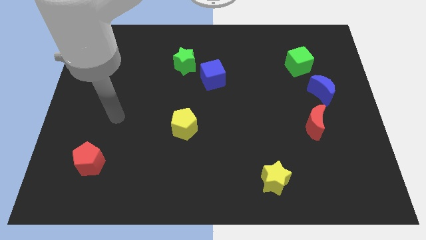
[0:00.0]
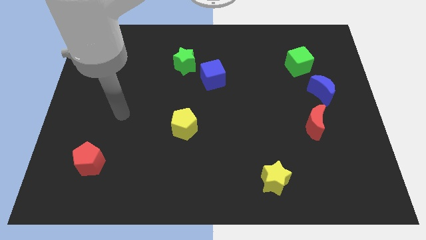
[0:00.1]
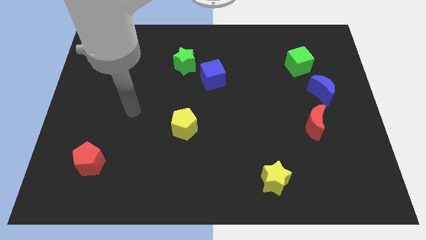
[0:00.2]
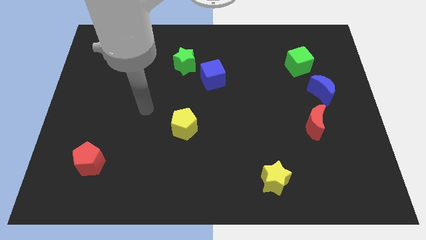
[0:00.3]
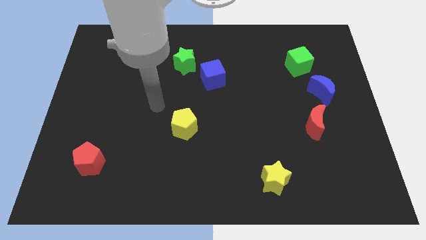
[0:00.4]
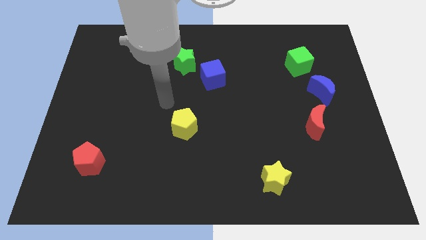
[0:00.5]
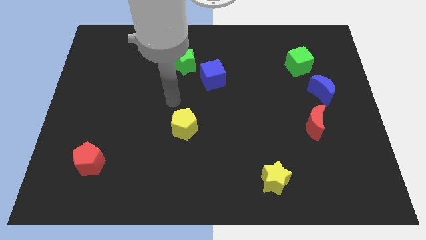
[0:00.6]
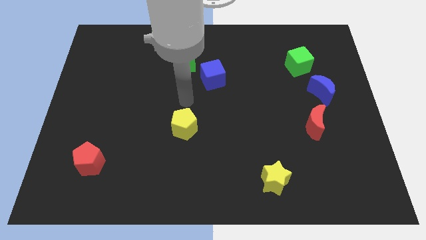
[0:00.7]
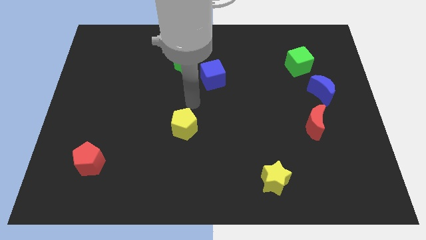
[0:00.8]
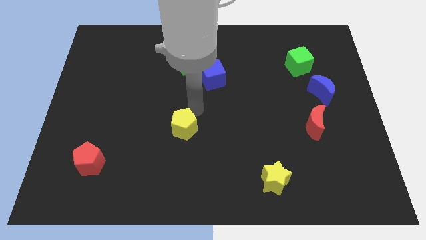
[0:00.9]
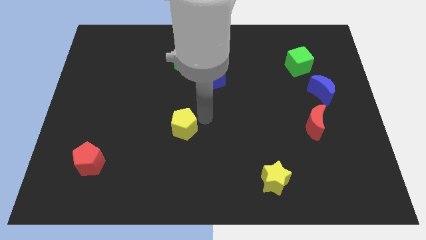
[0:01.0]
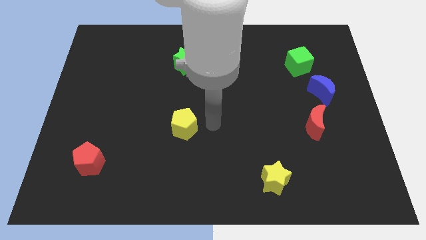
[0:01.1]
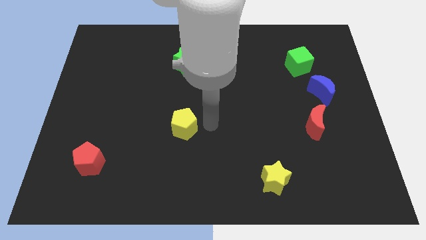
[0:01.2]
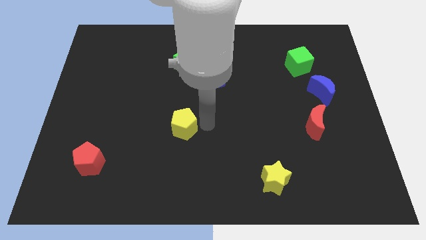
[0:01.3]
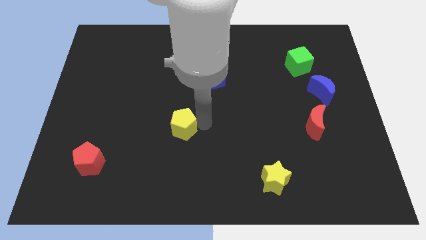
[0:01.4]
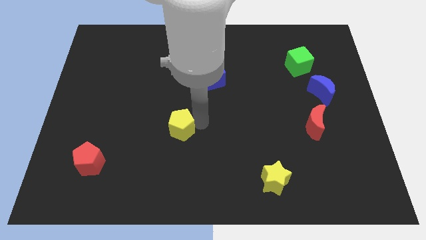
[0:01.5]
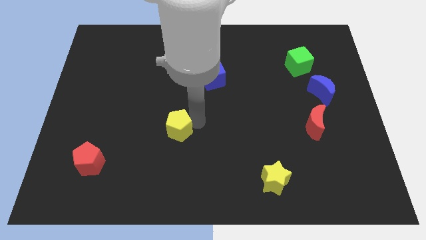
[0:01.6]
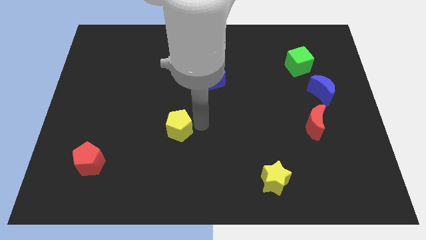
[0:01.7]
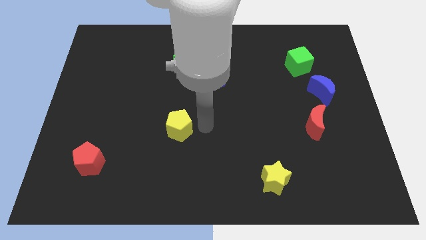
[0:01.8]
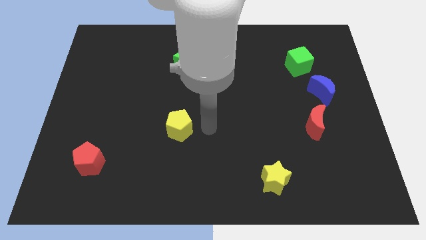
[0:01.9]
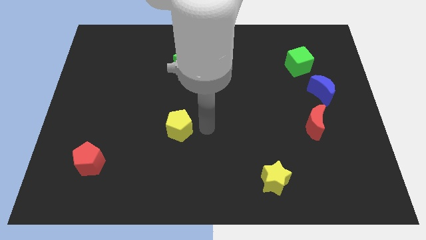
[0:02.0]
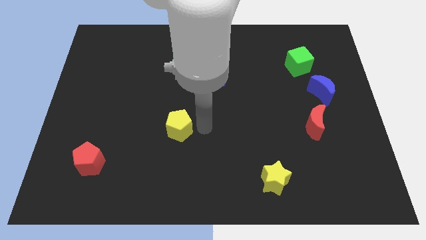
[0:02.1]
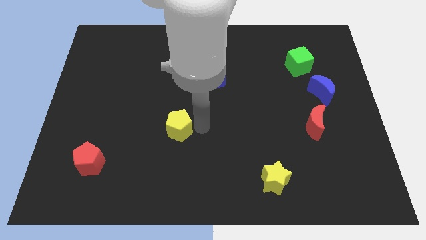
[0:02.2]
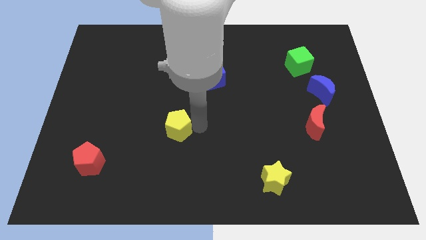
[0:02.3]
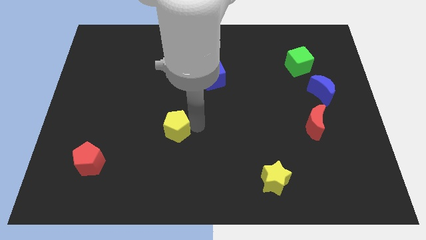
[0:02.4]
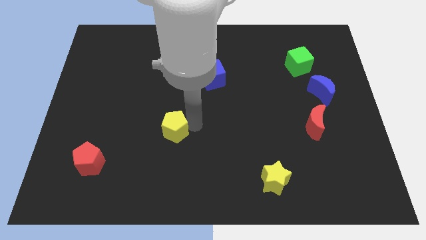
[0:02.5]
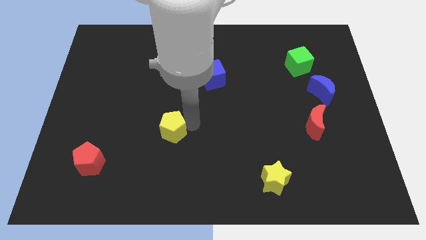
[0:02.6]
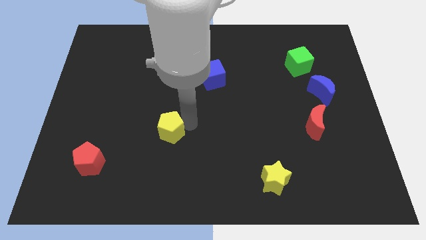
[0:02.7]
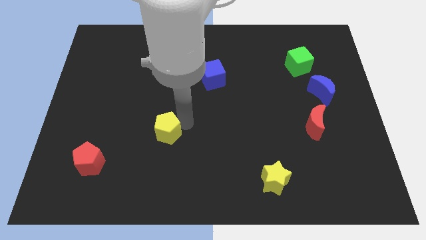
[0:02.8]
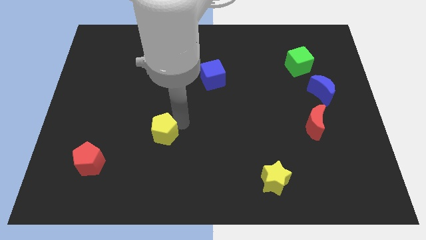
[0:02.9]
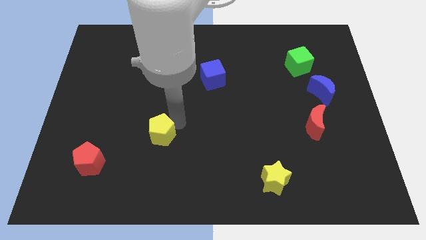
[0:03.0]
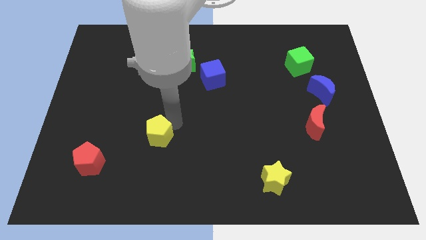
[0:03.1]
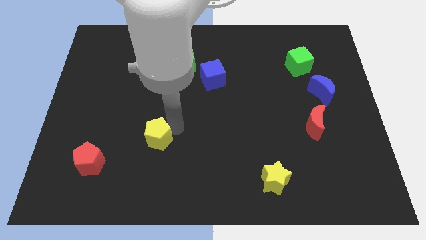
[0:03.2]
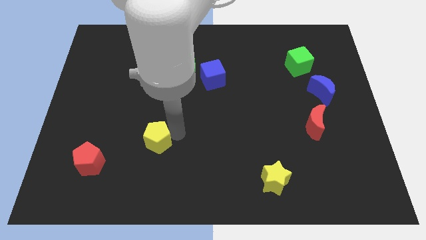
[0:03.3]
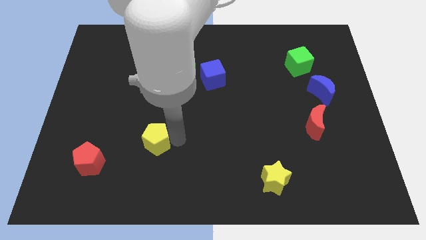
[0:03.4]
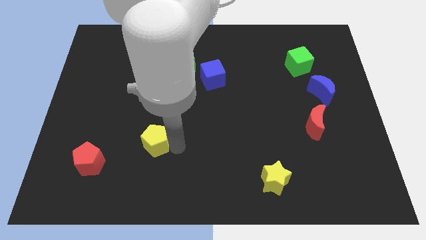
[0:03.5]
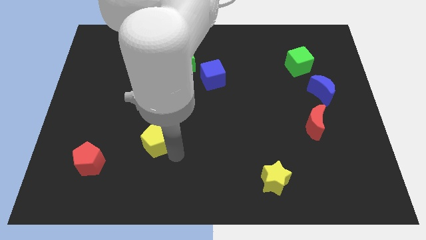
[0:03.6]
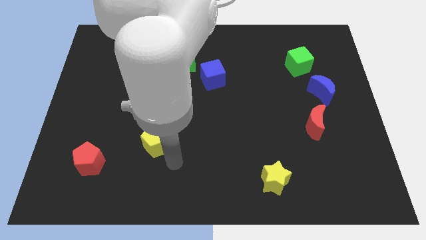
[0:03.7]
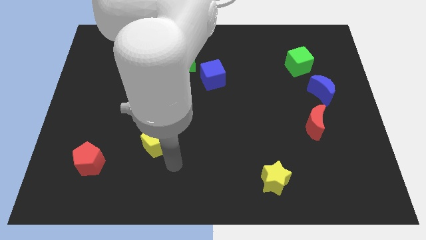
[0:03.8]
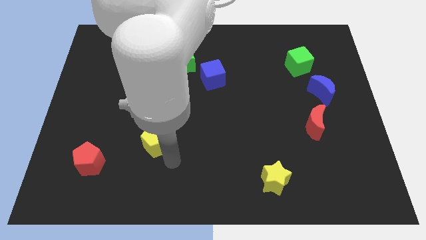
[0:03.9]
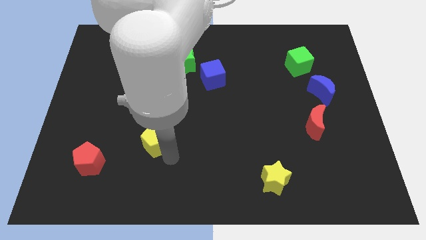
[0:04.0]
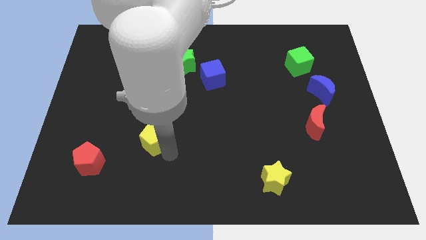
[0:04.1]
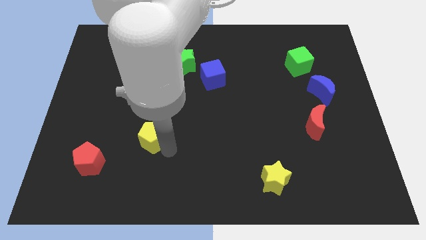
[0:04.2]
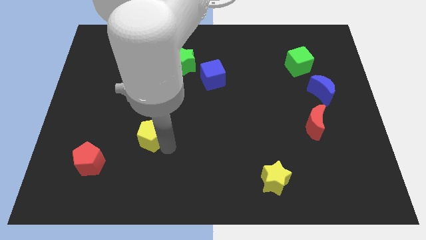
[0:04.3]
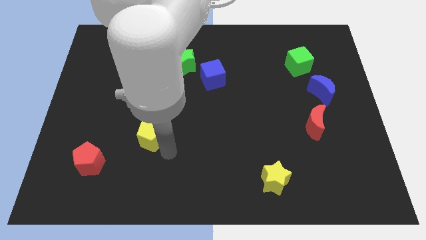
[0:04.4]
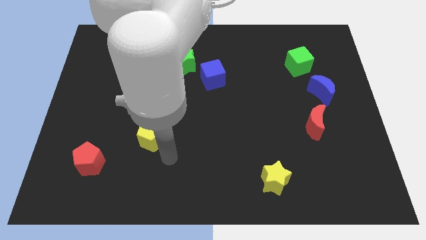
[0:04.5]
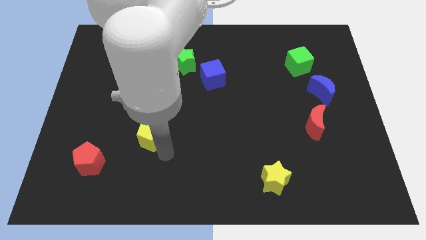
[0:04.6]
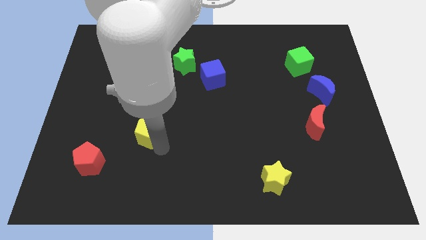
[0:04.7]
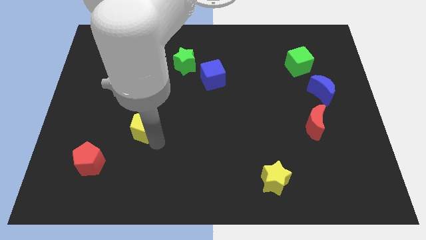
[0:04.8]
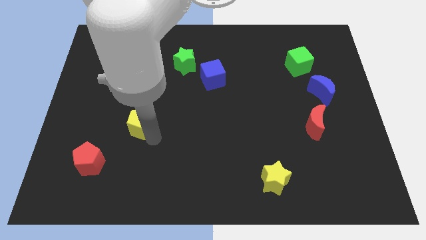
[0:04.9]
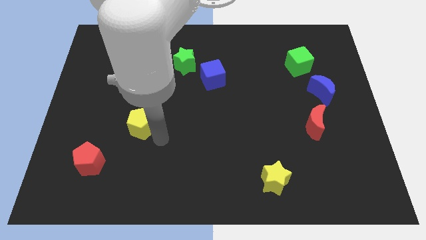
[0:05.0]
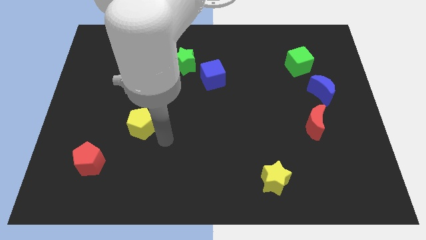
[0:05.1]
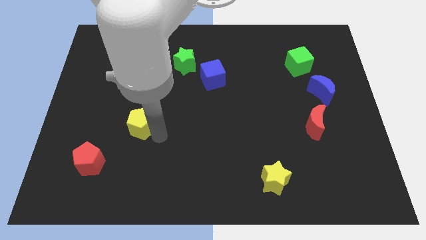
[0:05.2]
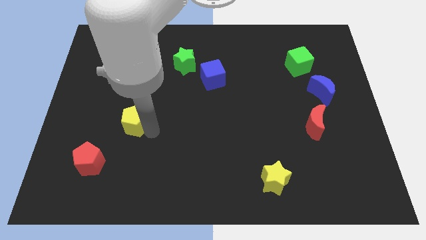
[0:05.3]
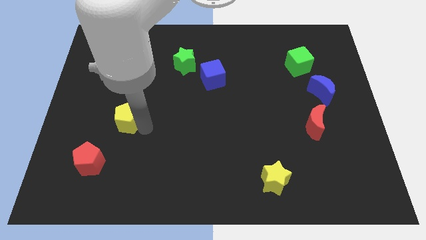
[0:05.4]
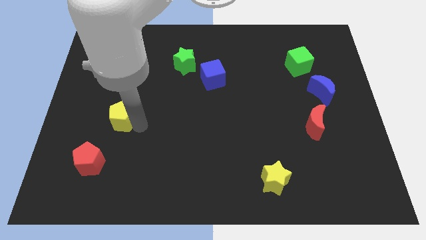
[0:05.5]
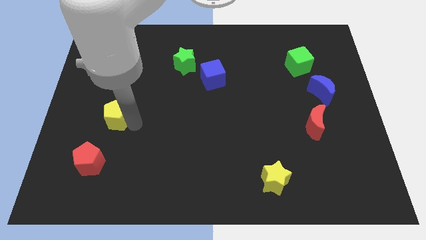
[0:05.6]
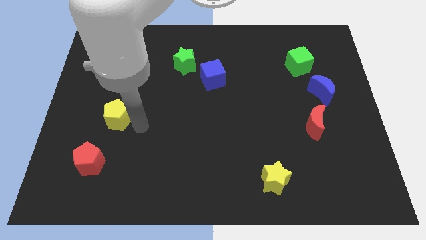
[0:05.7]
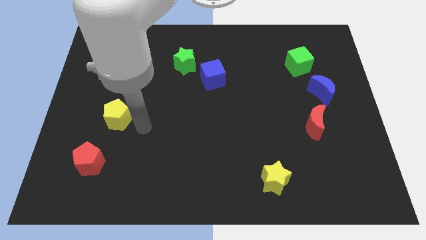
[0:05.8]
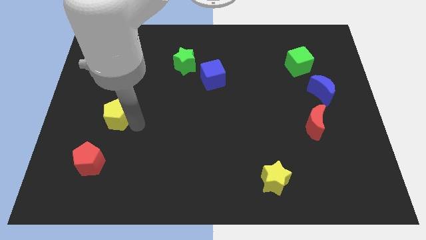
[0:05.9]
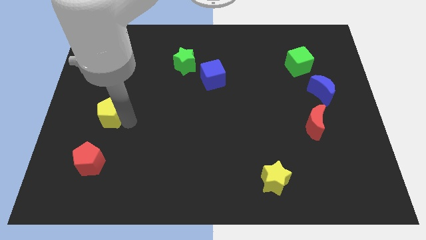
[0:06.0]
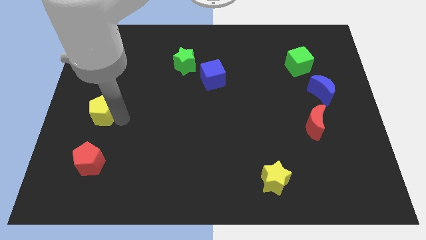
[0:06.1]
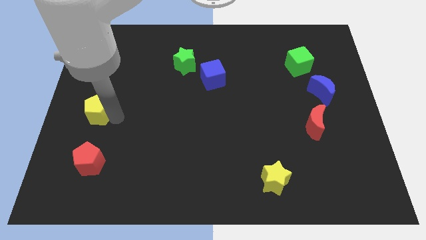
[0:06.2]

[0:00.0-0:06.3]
slide the yellow pentagon to the center left

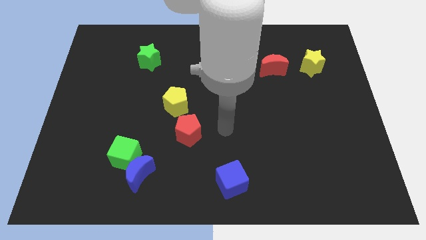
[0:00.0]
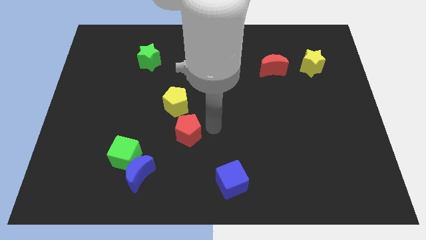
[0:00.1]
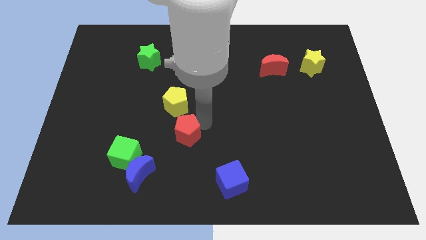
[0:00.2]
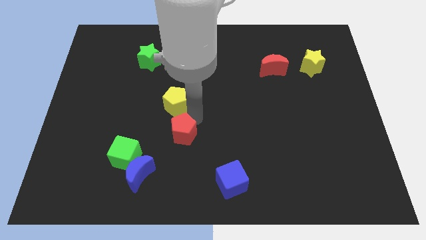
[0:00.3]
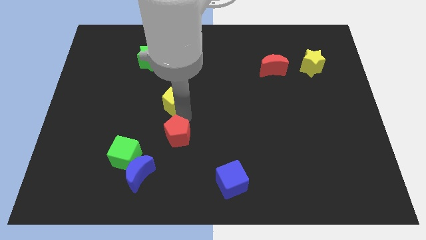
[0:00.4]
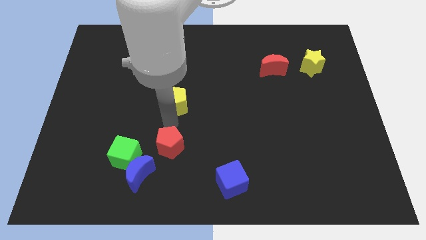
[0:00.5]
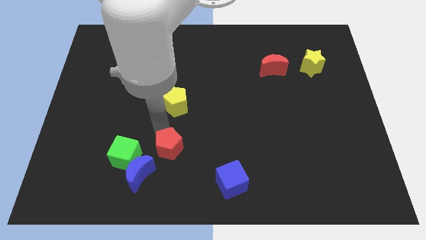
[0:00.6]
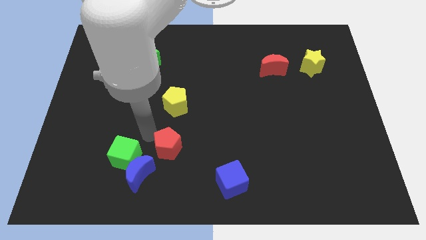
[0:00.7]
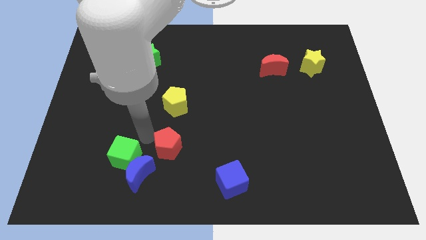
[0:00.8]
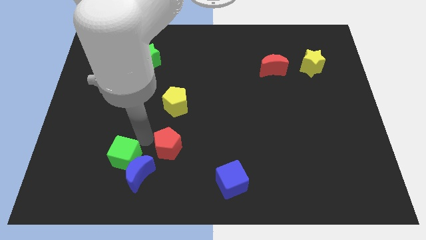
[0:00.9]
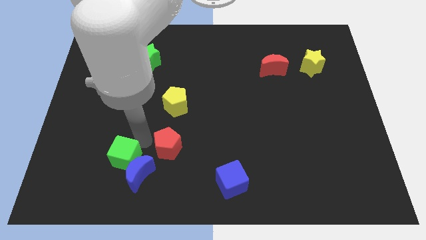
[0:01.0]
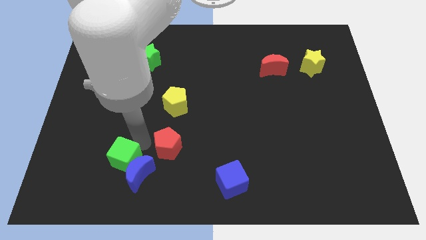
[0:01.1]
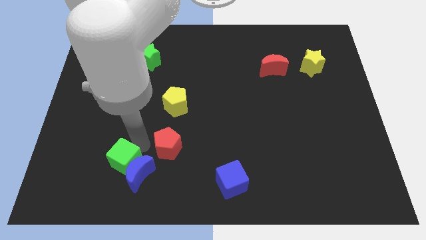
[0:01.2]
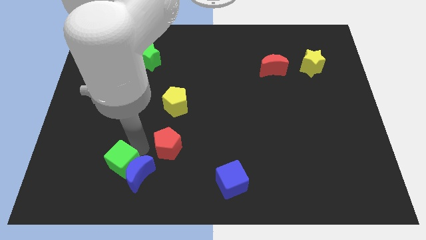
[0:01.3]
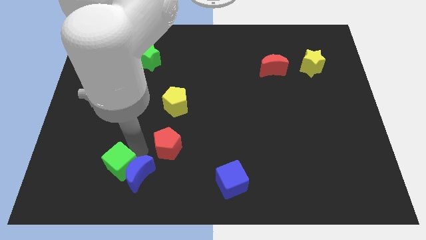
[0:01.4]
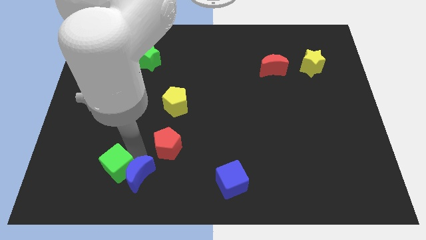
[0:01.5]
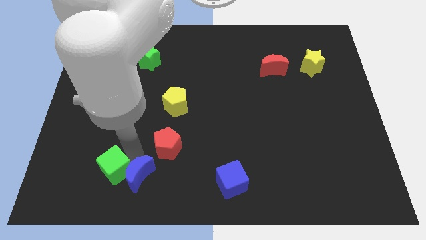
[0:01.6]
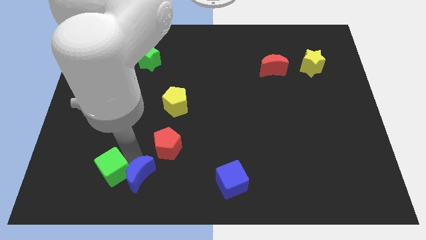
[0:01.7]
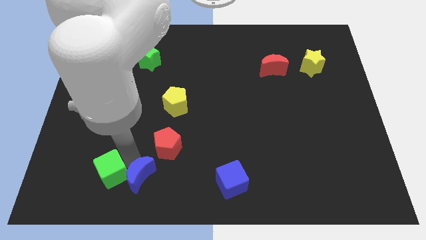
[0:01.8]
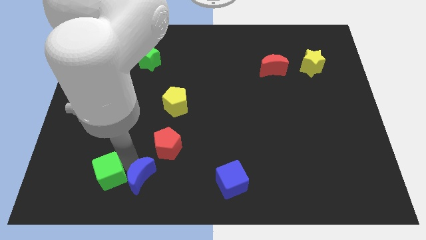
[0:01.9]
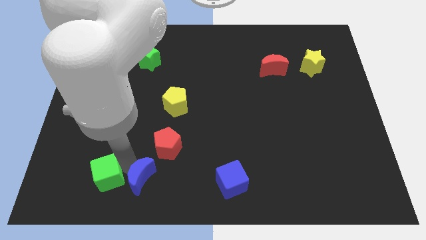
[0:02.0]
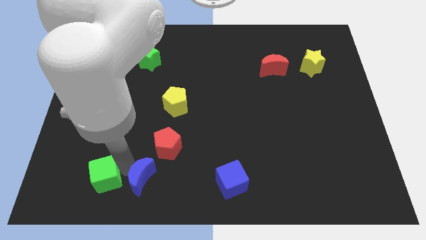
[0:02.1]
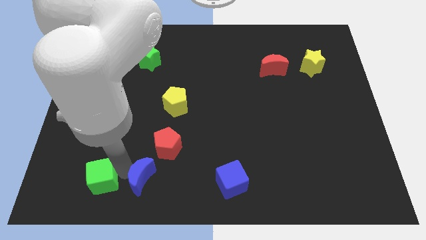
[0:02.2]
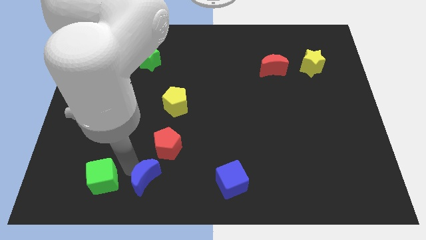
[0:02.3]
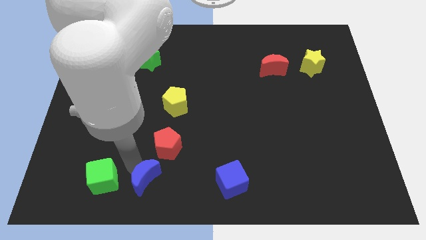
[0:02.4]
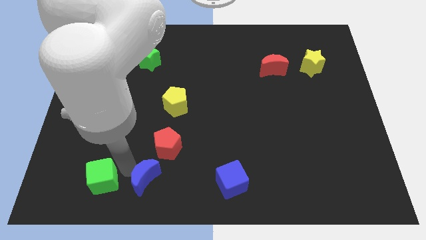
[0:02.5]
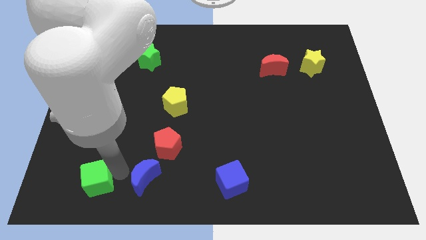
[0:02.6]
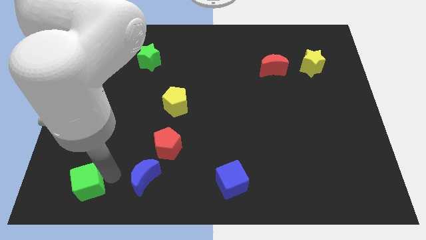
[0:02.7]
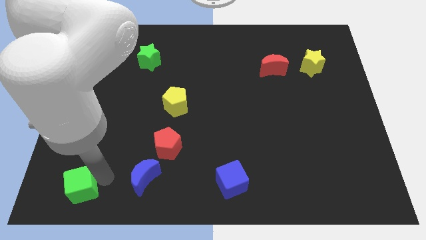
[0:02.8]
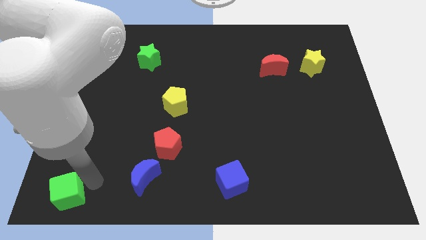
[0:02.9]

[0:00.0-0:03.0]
push the green cube to the bottom left corner
